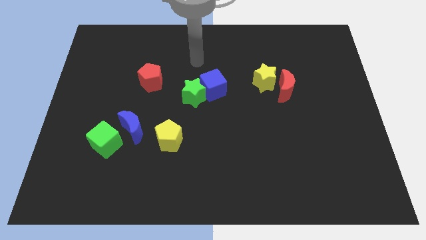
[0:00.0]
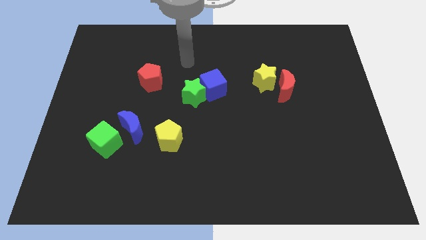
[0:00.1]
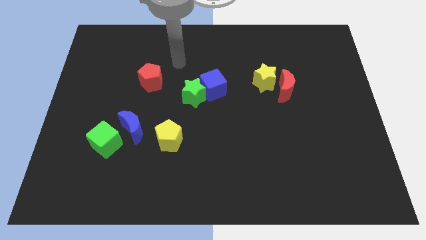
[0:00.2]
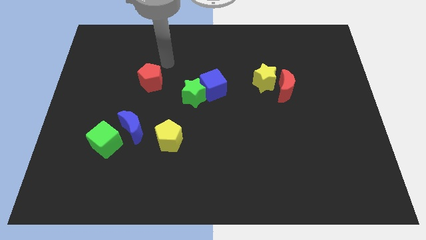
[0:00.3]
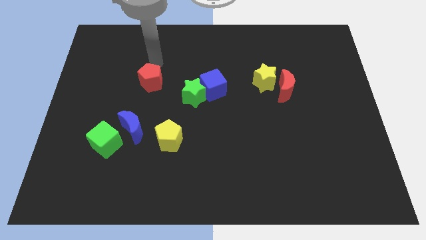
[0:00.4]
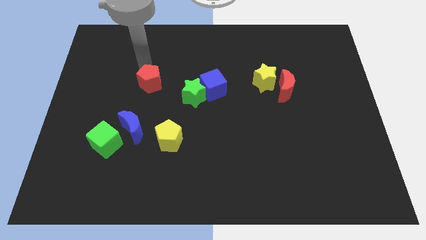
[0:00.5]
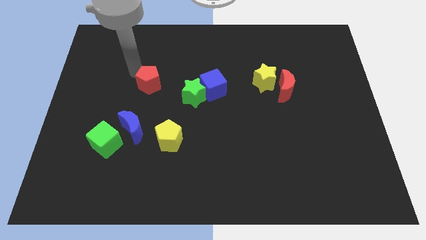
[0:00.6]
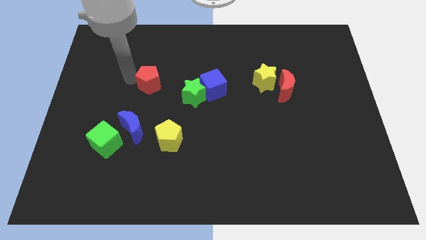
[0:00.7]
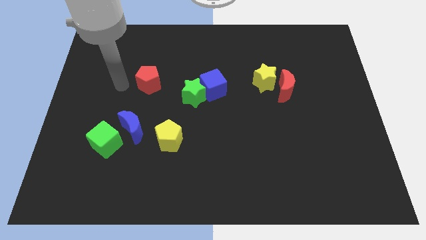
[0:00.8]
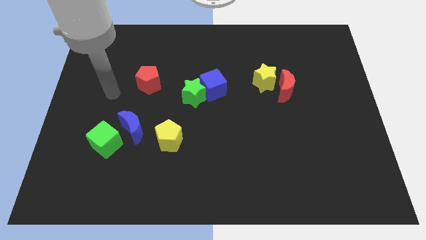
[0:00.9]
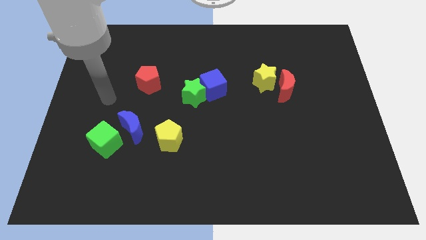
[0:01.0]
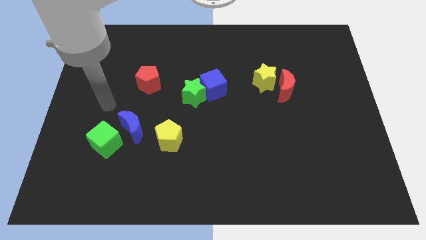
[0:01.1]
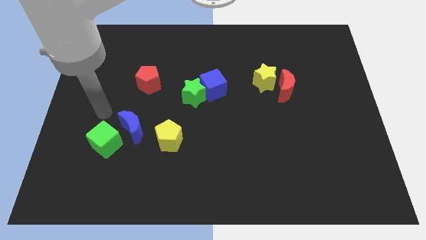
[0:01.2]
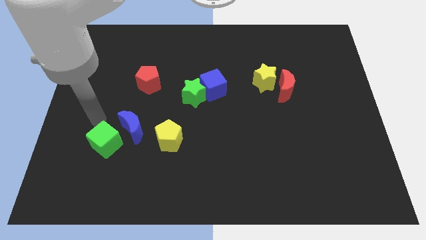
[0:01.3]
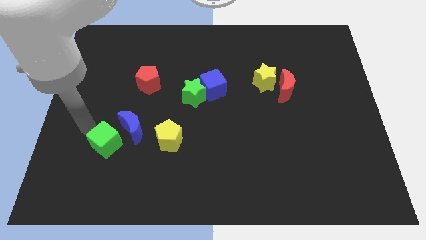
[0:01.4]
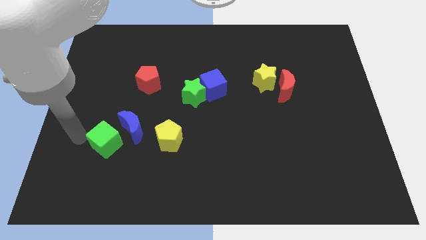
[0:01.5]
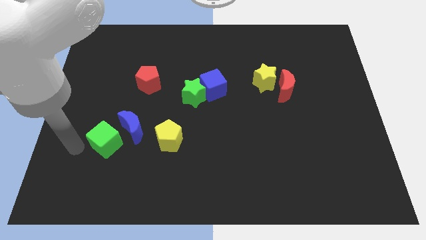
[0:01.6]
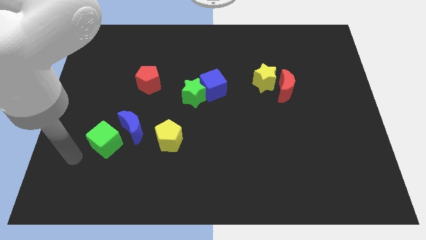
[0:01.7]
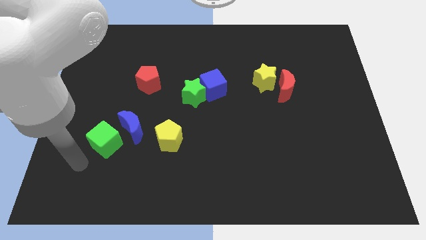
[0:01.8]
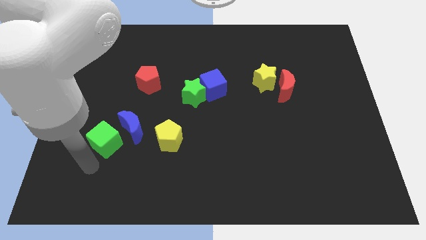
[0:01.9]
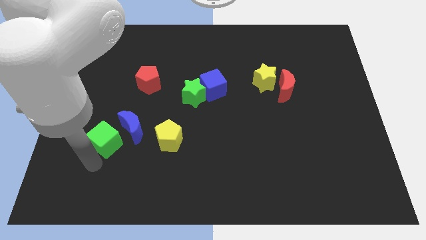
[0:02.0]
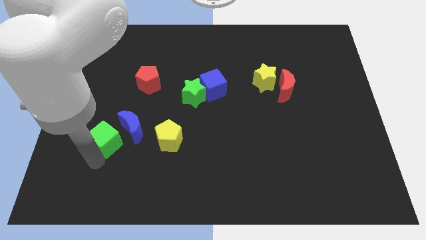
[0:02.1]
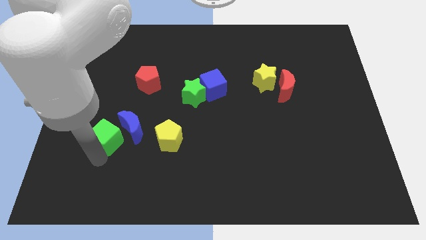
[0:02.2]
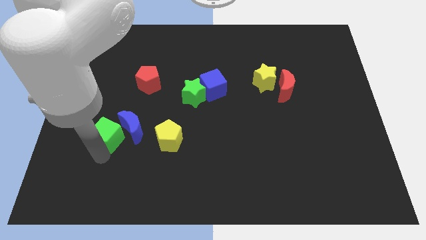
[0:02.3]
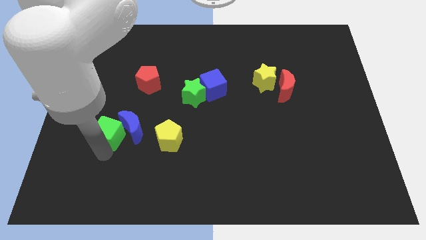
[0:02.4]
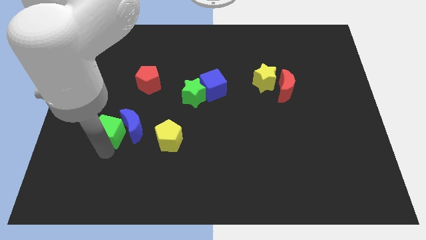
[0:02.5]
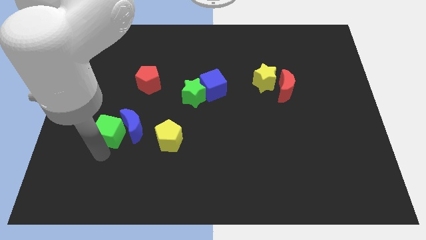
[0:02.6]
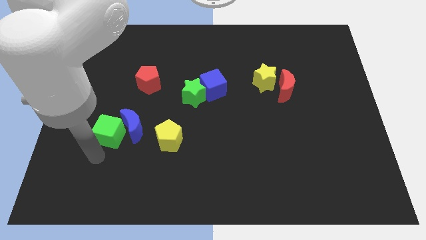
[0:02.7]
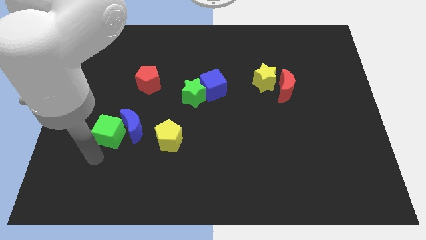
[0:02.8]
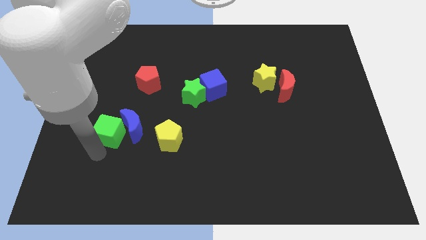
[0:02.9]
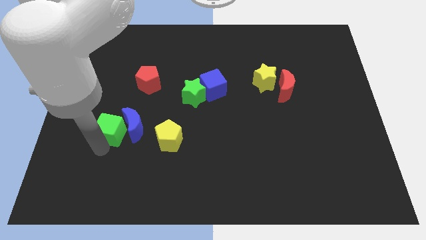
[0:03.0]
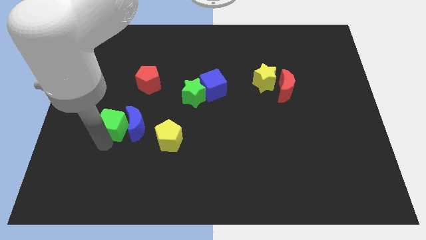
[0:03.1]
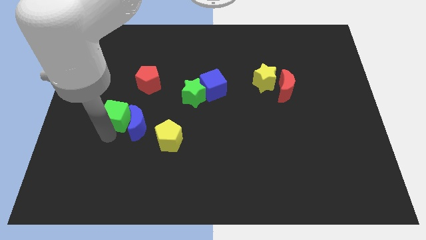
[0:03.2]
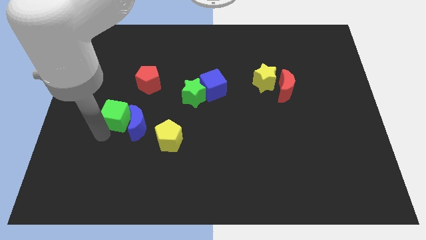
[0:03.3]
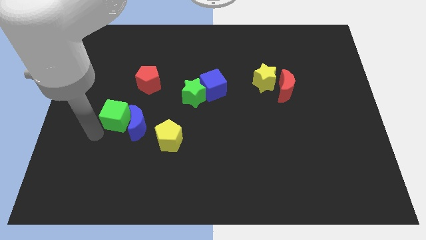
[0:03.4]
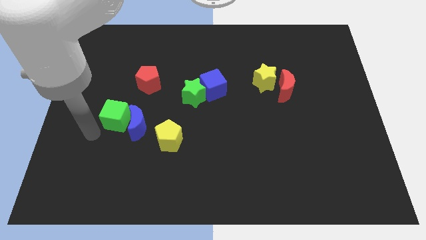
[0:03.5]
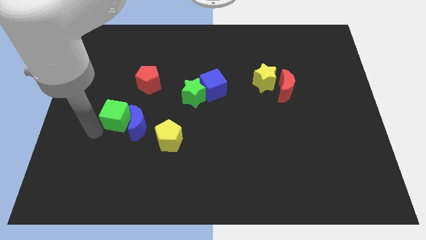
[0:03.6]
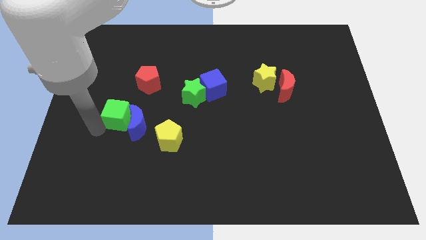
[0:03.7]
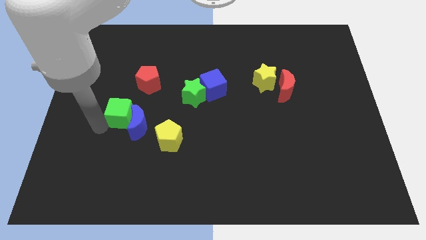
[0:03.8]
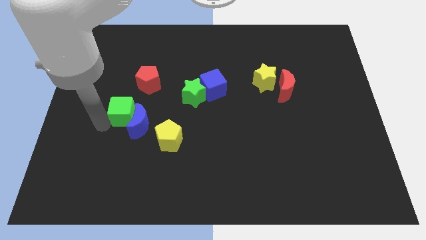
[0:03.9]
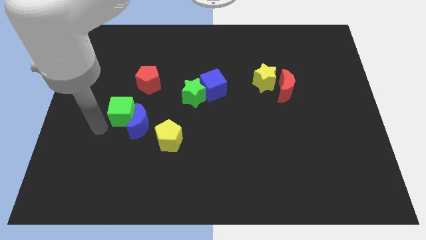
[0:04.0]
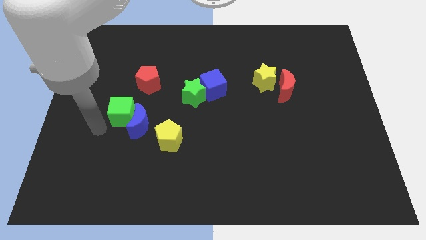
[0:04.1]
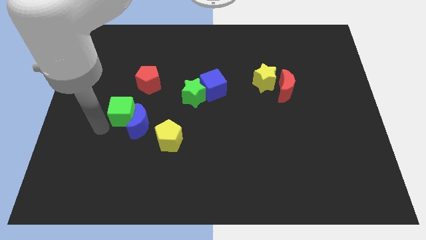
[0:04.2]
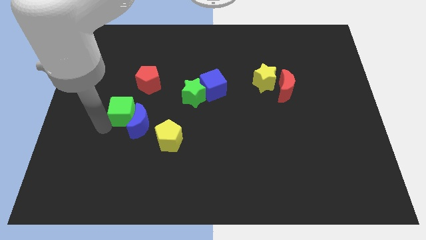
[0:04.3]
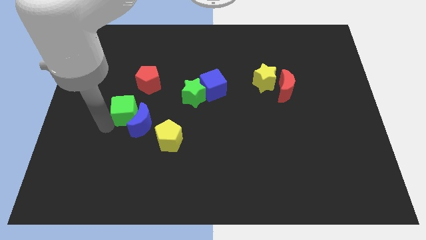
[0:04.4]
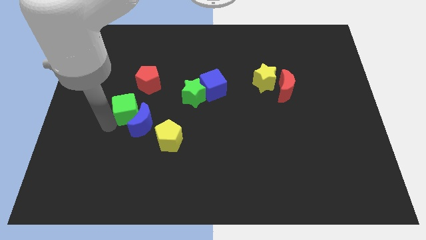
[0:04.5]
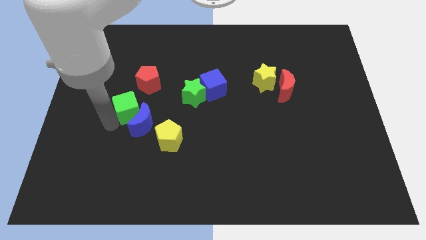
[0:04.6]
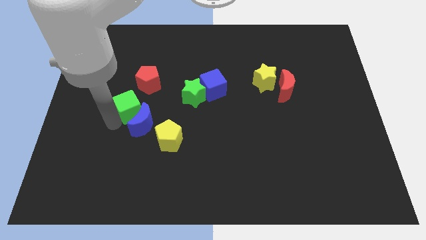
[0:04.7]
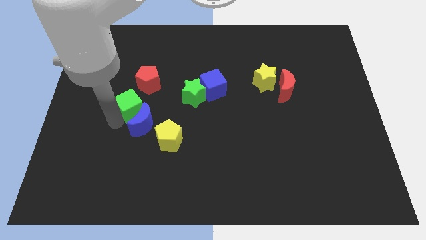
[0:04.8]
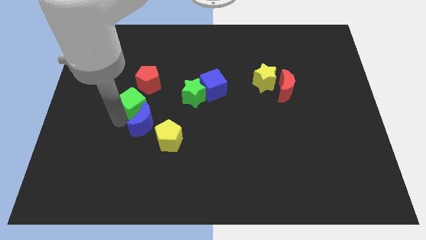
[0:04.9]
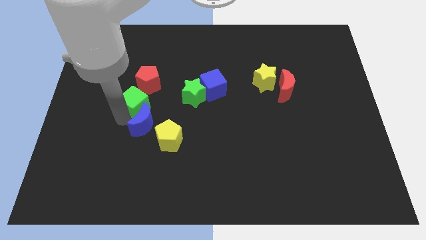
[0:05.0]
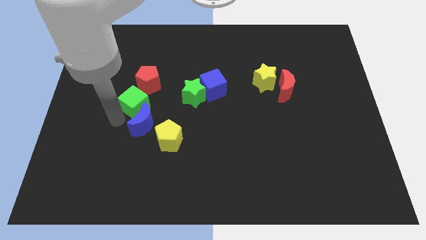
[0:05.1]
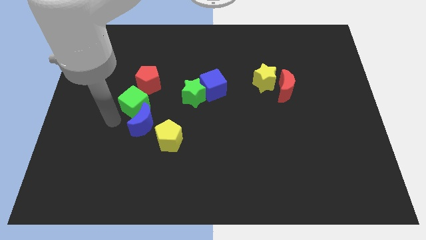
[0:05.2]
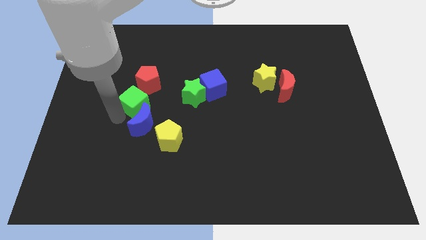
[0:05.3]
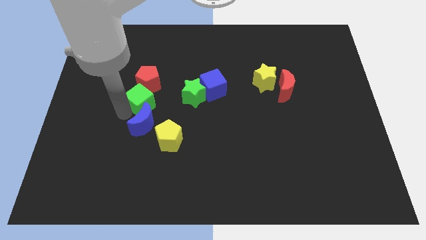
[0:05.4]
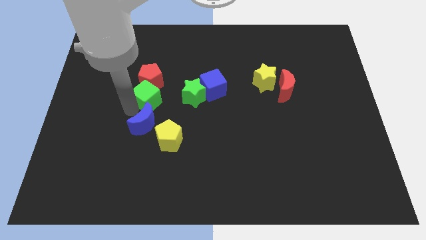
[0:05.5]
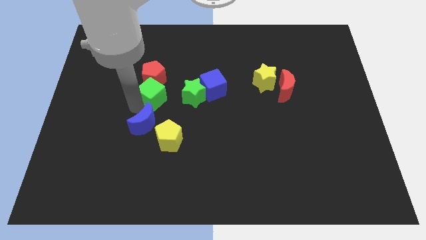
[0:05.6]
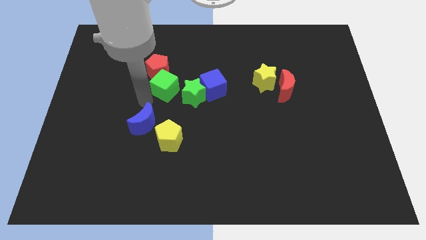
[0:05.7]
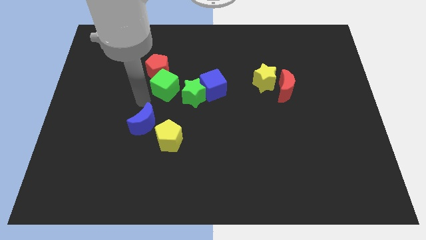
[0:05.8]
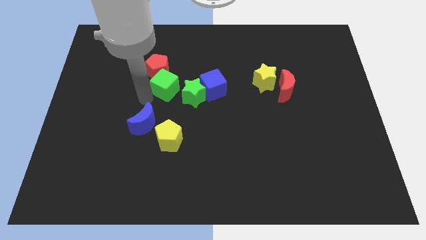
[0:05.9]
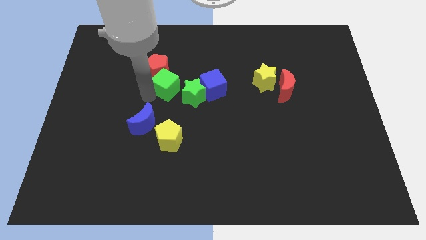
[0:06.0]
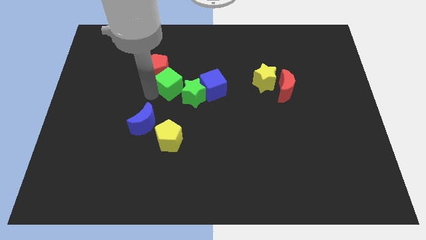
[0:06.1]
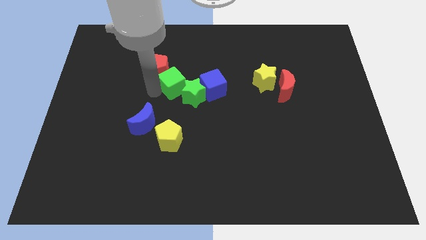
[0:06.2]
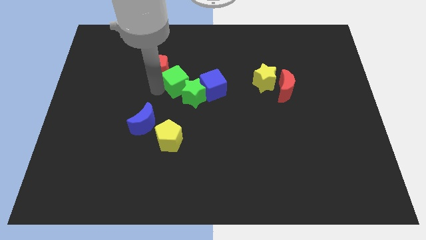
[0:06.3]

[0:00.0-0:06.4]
put the green cube to the right side of the red pentagon
